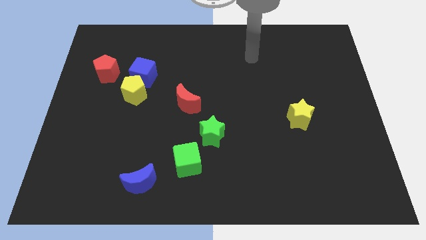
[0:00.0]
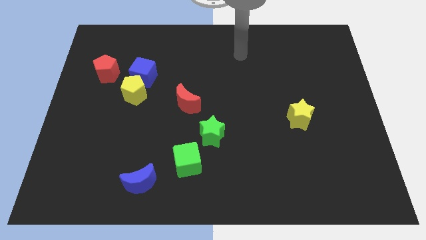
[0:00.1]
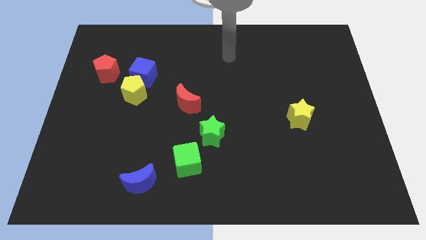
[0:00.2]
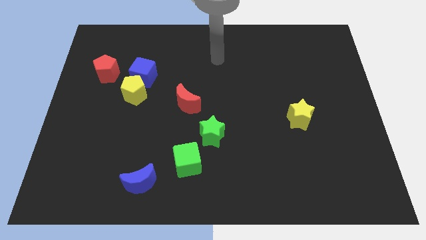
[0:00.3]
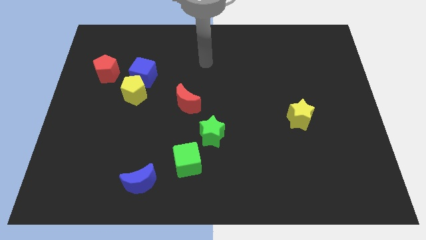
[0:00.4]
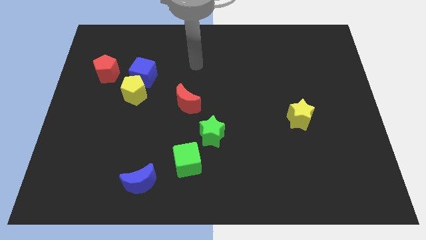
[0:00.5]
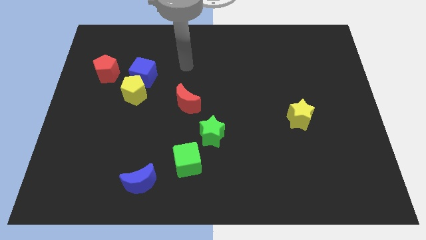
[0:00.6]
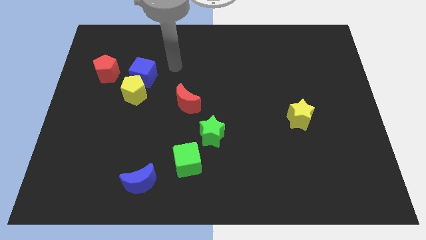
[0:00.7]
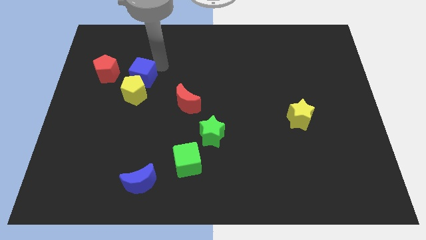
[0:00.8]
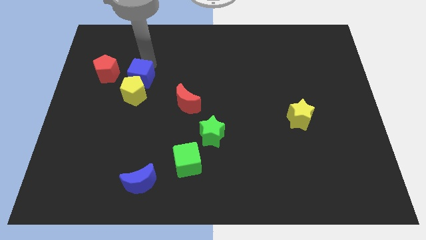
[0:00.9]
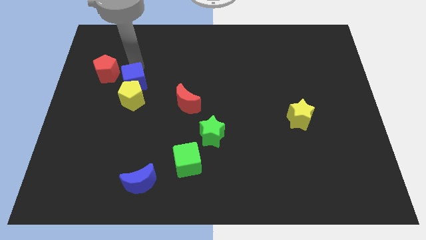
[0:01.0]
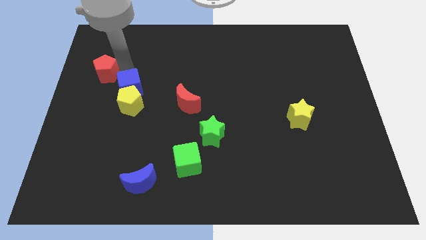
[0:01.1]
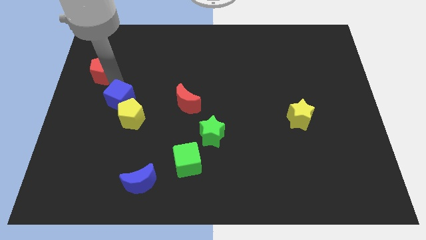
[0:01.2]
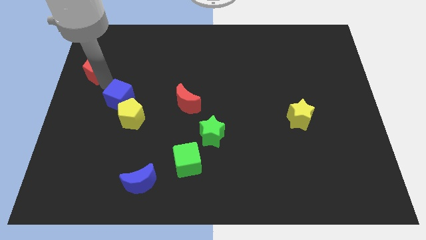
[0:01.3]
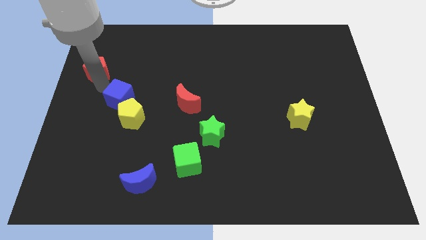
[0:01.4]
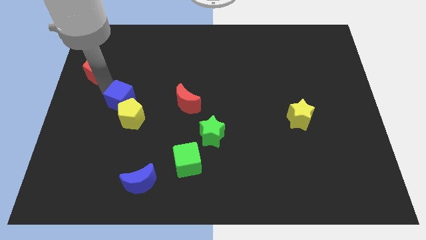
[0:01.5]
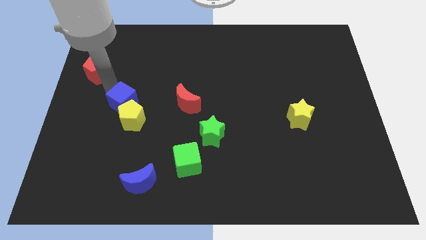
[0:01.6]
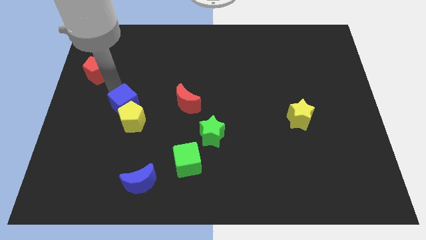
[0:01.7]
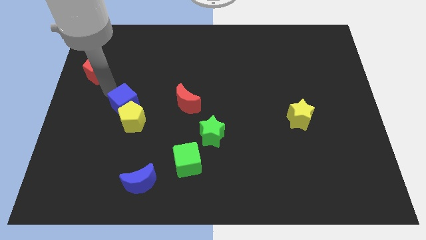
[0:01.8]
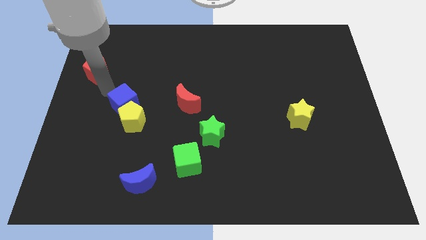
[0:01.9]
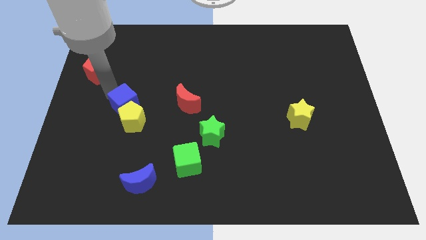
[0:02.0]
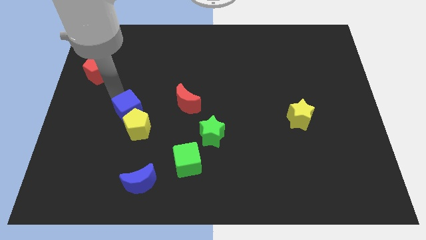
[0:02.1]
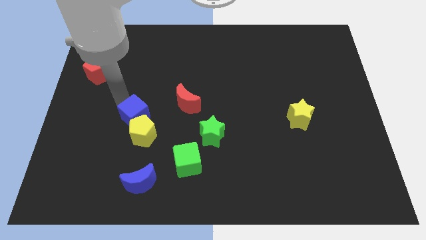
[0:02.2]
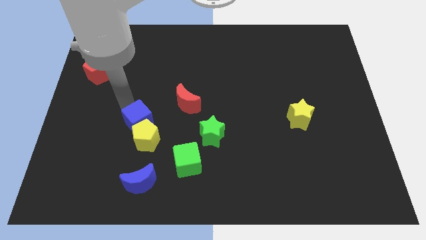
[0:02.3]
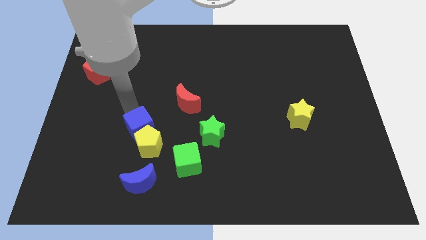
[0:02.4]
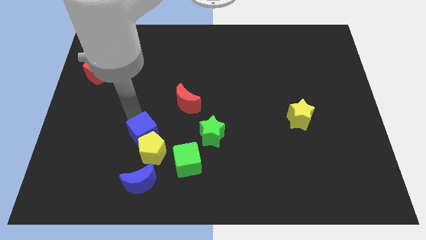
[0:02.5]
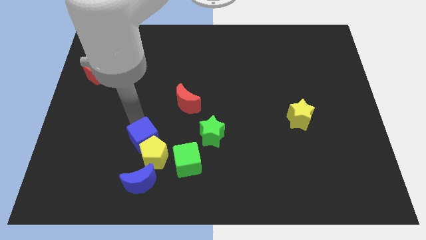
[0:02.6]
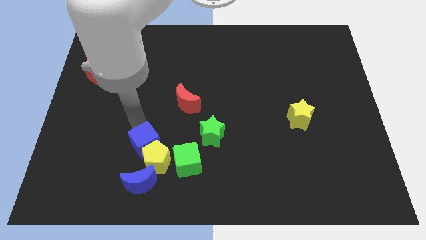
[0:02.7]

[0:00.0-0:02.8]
separate the blue cube from the yellow pentagon and red pentagon

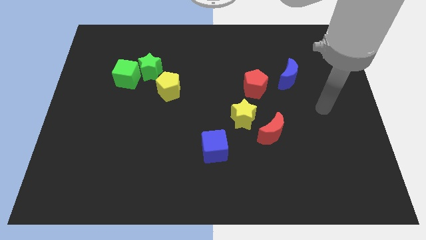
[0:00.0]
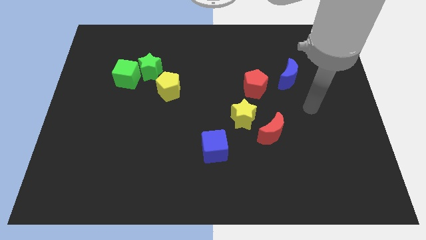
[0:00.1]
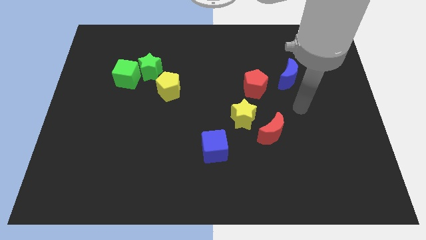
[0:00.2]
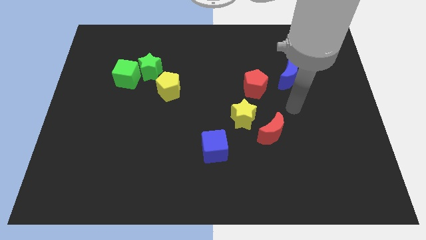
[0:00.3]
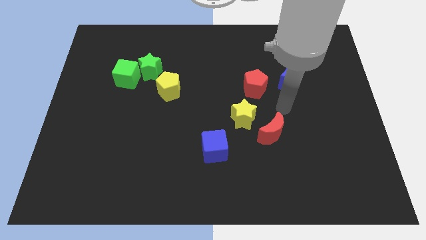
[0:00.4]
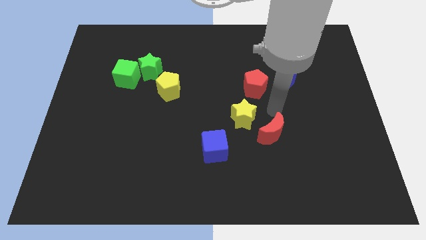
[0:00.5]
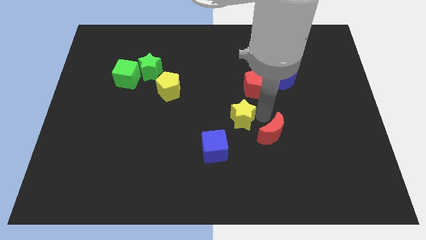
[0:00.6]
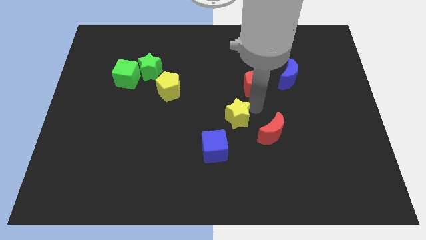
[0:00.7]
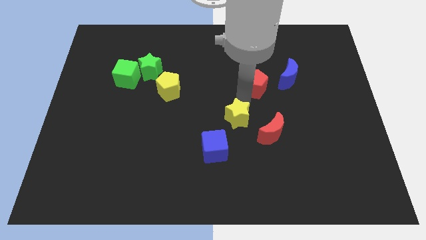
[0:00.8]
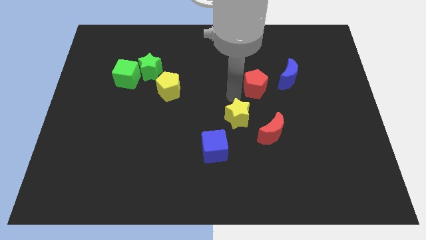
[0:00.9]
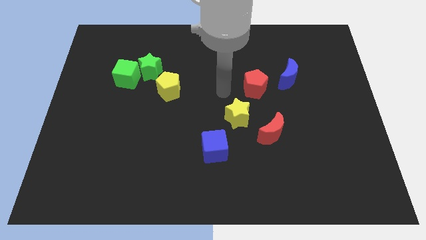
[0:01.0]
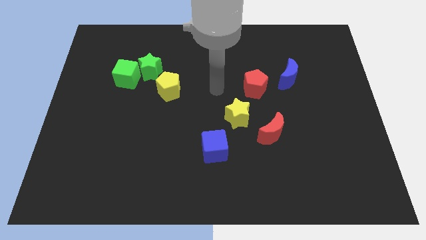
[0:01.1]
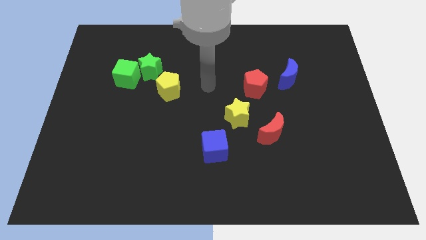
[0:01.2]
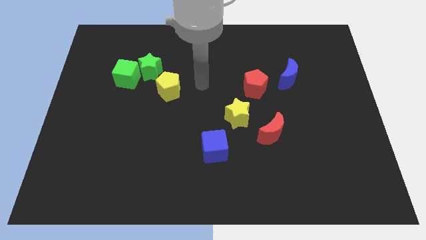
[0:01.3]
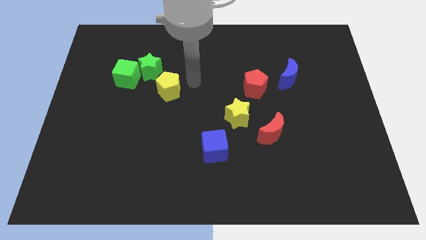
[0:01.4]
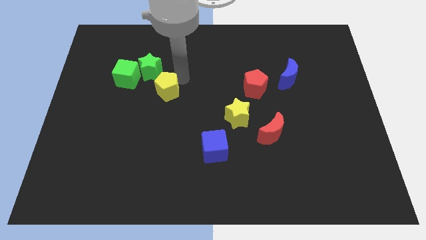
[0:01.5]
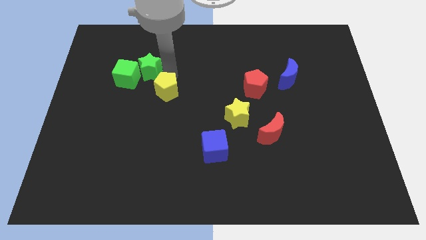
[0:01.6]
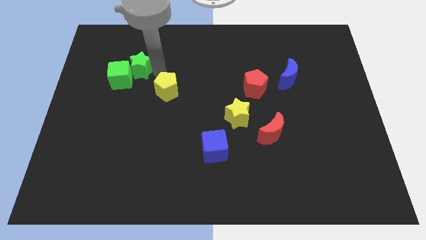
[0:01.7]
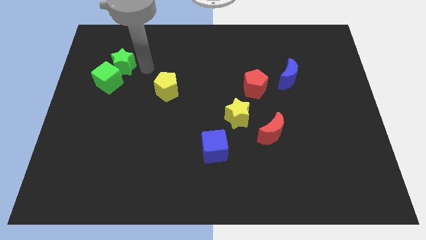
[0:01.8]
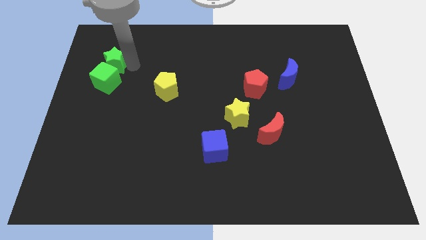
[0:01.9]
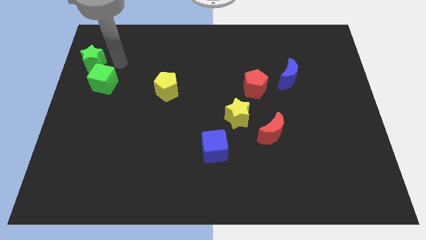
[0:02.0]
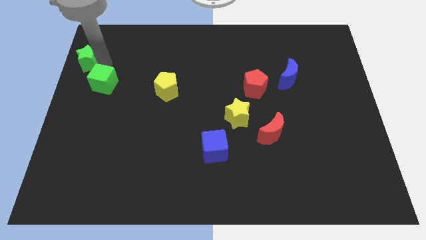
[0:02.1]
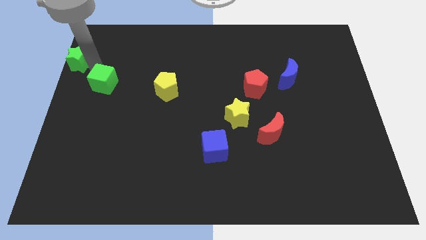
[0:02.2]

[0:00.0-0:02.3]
pull the green cube apart from the green star

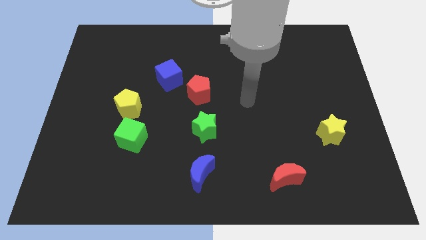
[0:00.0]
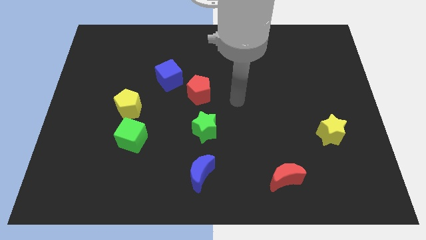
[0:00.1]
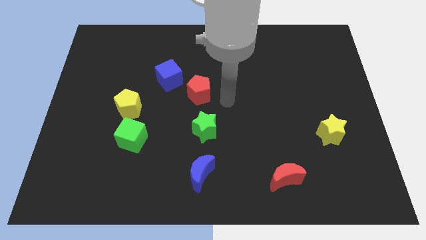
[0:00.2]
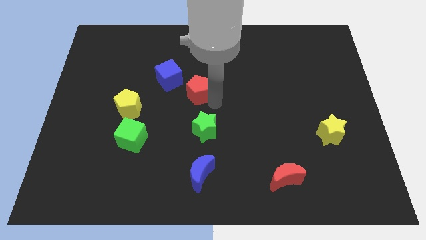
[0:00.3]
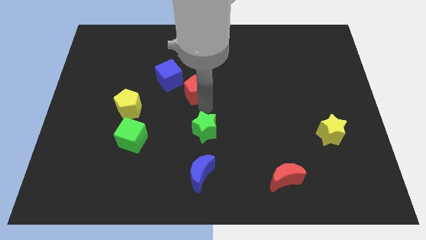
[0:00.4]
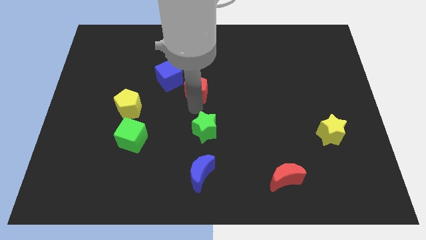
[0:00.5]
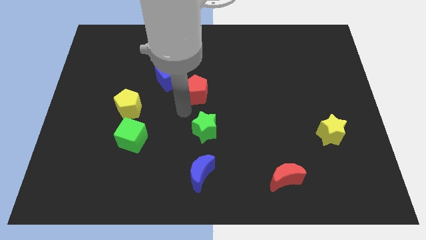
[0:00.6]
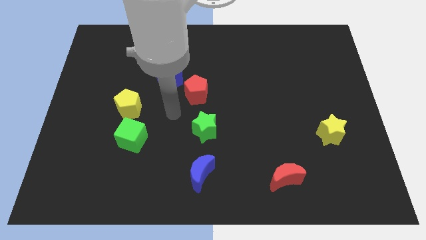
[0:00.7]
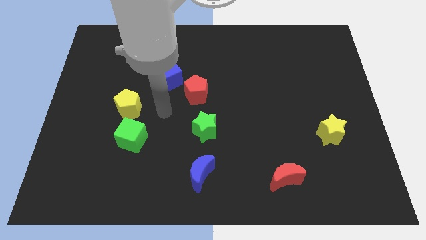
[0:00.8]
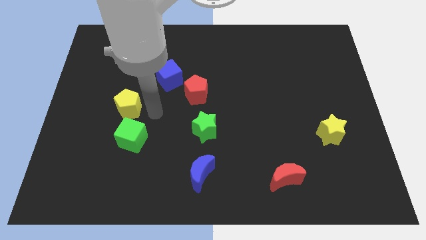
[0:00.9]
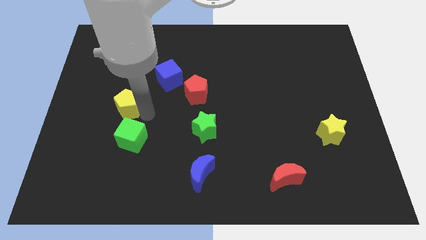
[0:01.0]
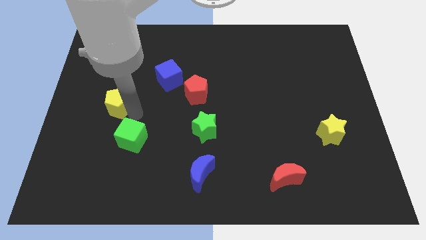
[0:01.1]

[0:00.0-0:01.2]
move the green cube away from the yellow pentagon

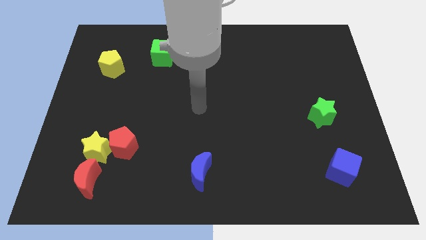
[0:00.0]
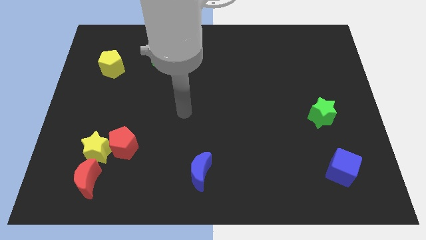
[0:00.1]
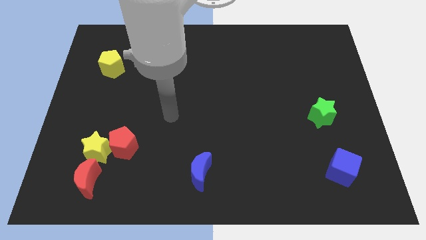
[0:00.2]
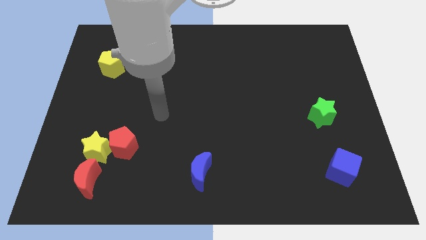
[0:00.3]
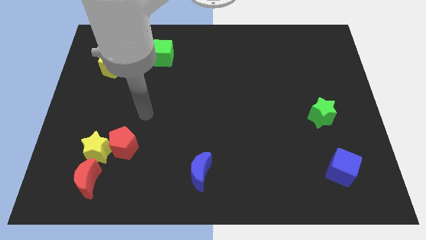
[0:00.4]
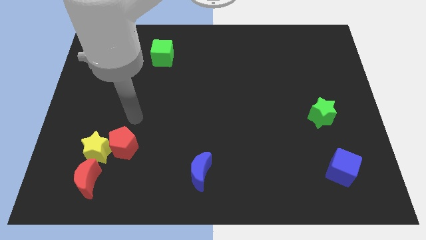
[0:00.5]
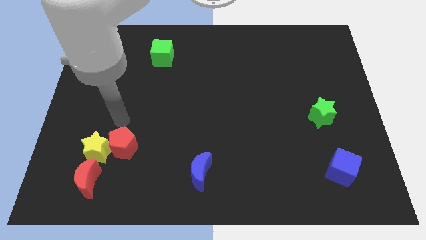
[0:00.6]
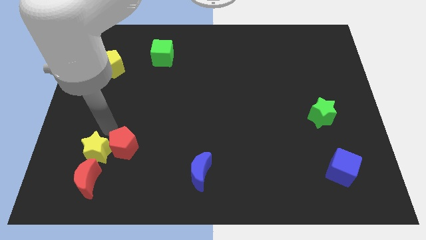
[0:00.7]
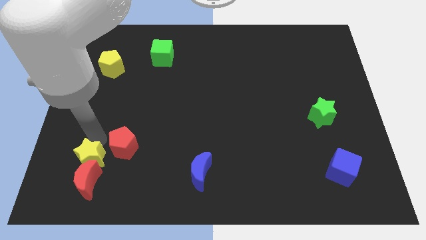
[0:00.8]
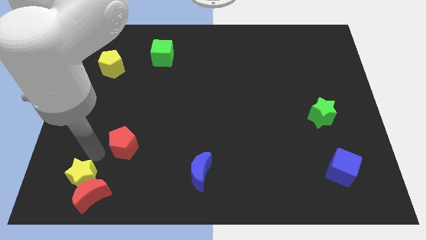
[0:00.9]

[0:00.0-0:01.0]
move the red pentagon away from the yellow star

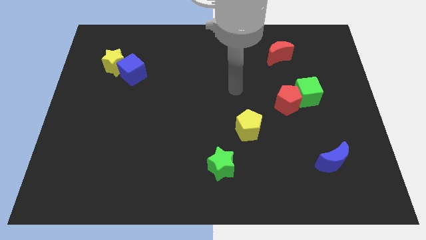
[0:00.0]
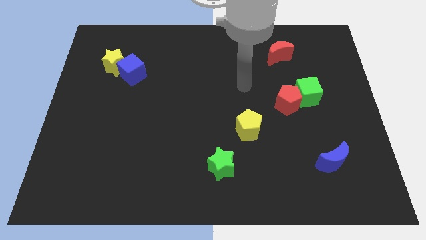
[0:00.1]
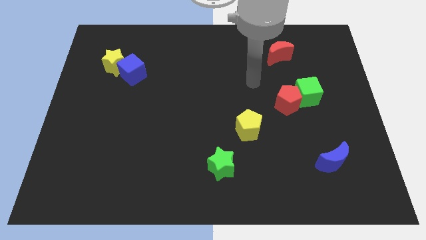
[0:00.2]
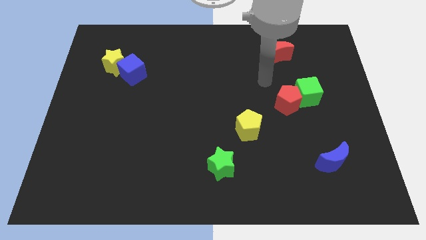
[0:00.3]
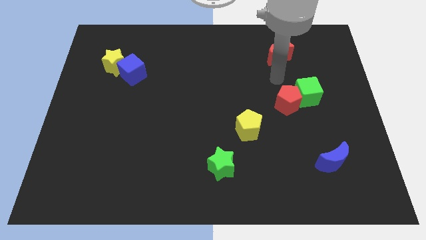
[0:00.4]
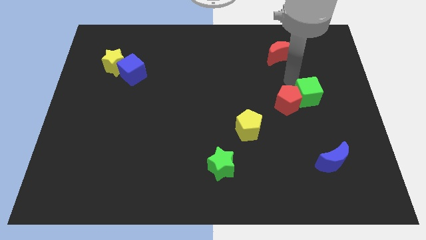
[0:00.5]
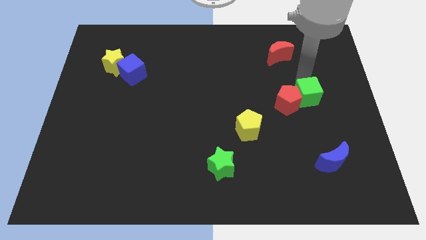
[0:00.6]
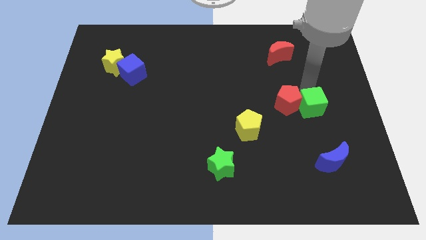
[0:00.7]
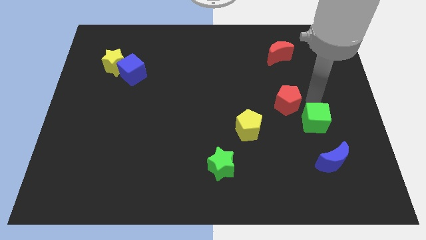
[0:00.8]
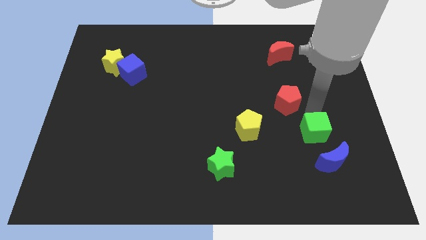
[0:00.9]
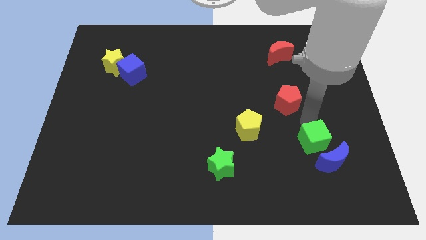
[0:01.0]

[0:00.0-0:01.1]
pull the red pentagon apart from the green cube

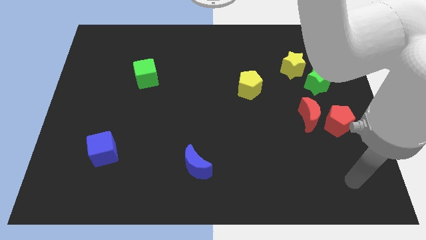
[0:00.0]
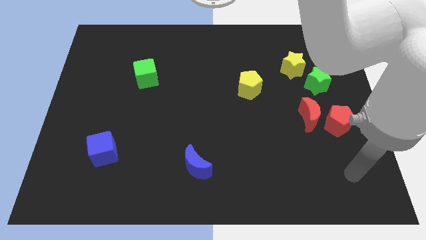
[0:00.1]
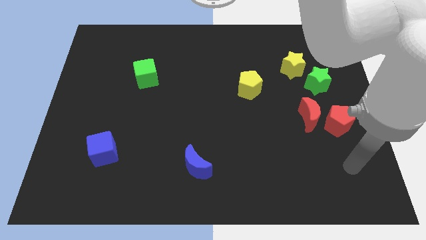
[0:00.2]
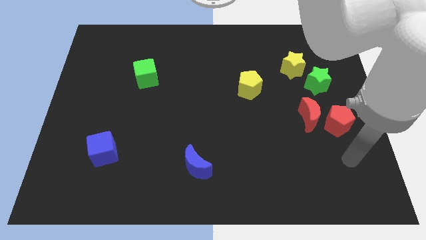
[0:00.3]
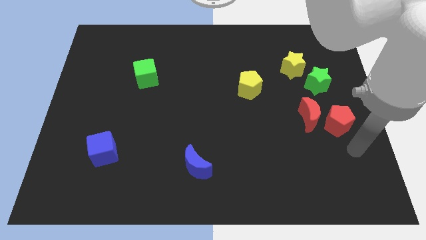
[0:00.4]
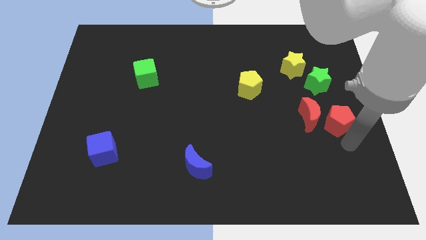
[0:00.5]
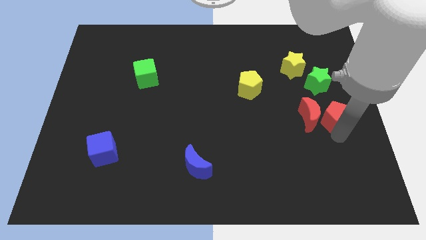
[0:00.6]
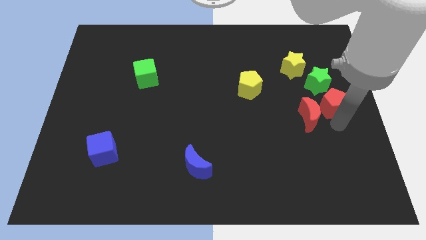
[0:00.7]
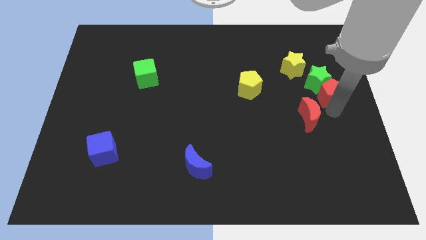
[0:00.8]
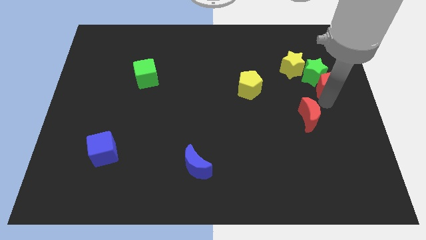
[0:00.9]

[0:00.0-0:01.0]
separate the red moon from the red pentagon
